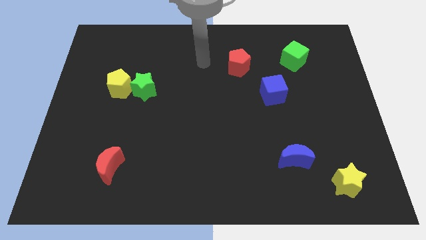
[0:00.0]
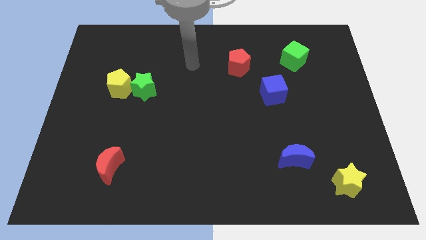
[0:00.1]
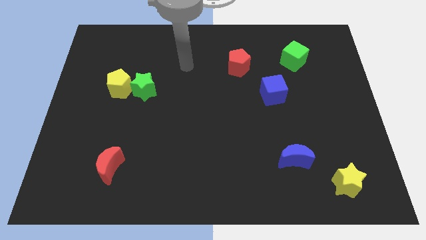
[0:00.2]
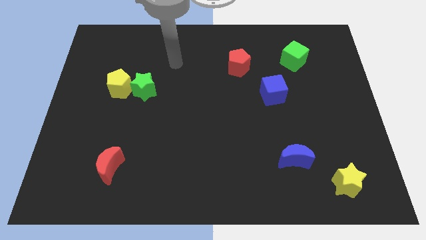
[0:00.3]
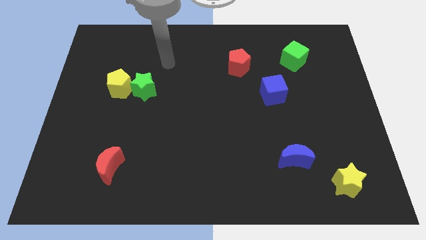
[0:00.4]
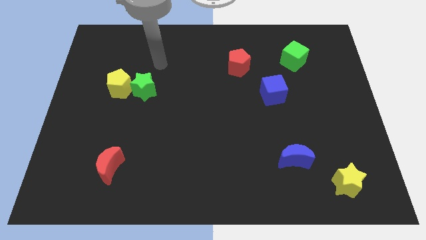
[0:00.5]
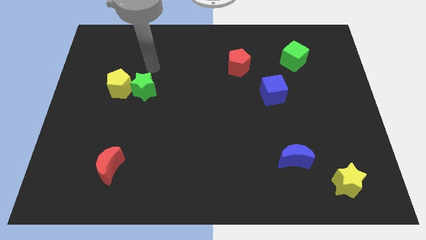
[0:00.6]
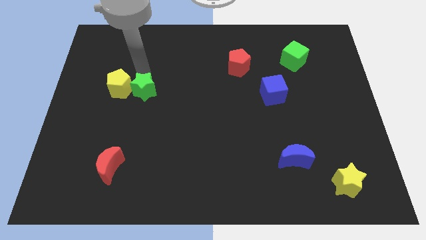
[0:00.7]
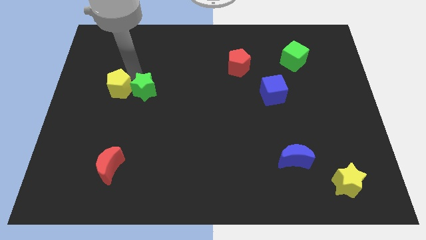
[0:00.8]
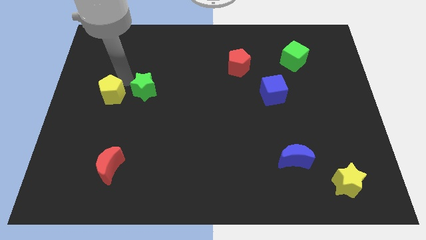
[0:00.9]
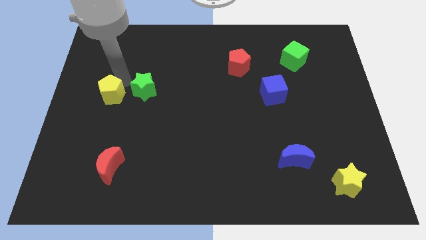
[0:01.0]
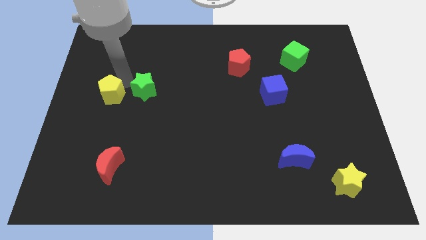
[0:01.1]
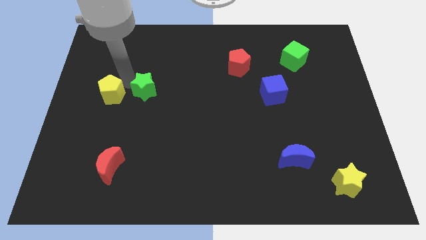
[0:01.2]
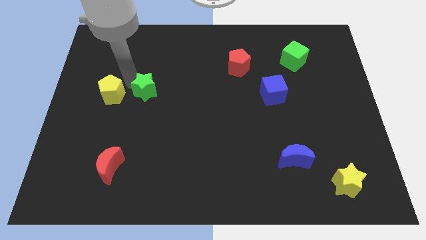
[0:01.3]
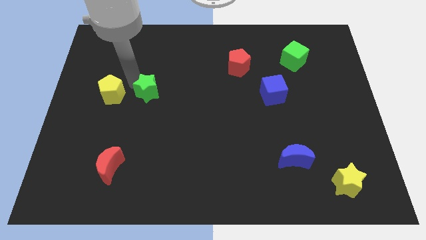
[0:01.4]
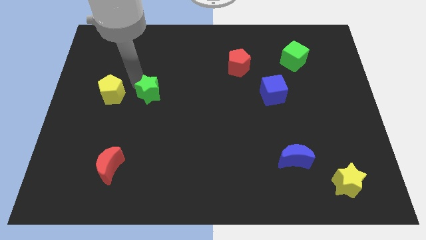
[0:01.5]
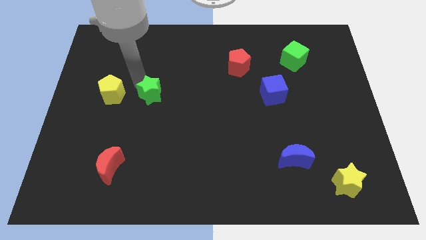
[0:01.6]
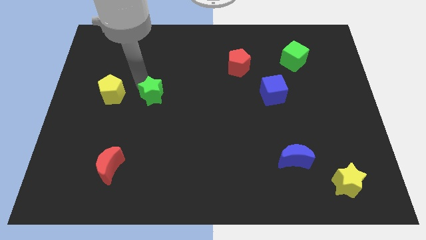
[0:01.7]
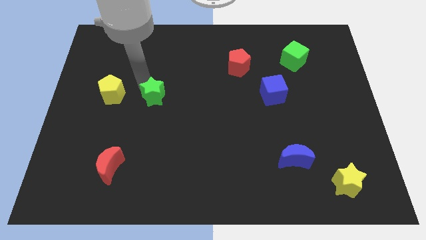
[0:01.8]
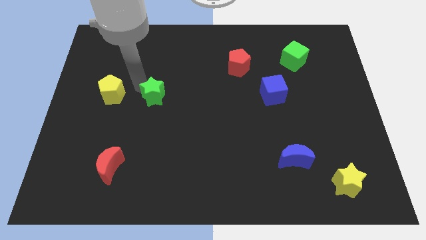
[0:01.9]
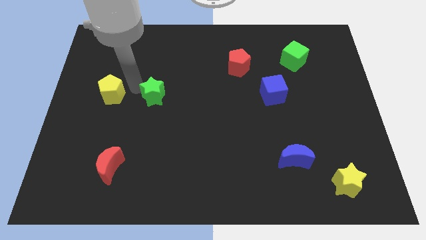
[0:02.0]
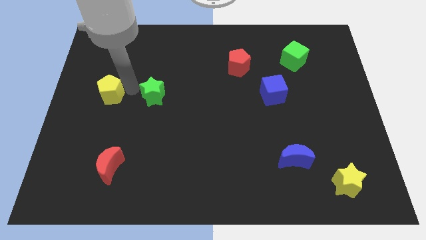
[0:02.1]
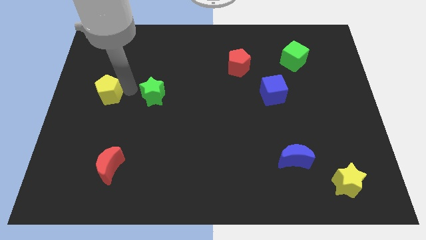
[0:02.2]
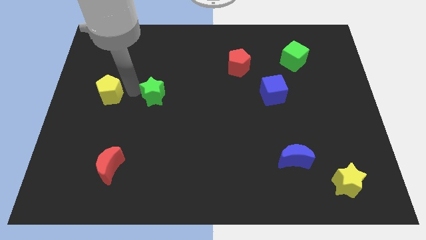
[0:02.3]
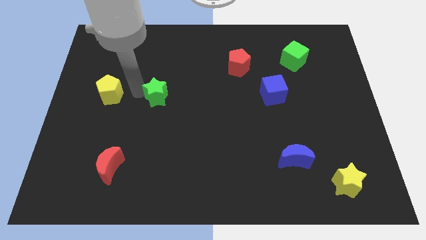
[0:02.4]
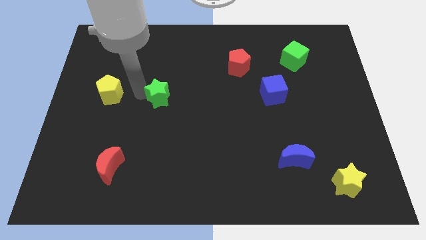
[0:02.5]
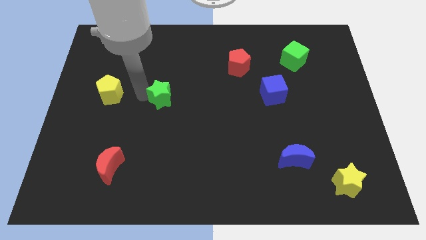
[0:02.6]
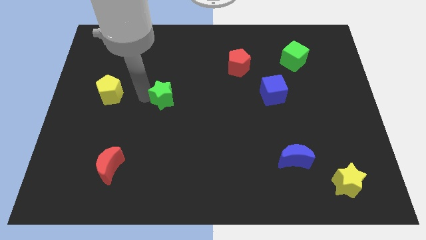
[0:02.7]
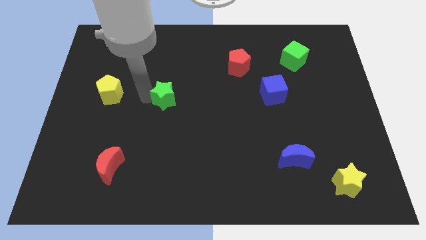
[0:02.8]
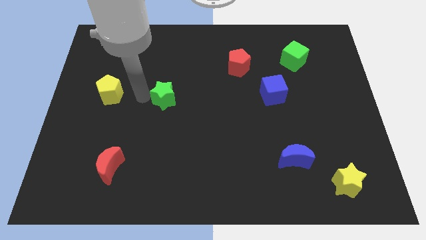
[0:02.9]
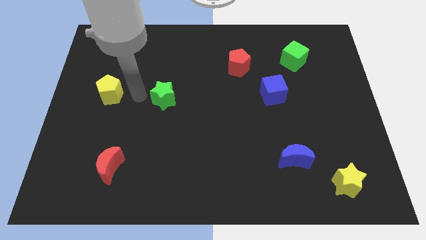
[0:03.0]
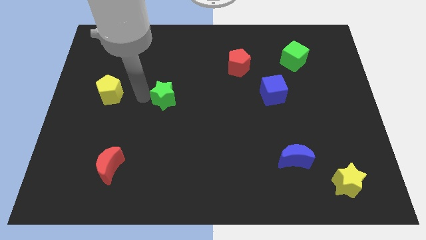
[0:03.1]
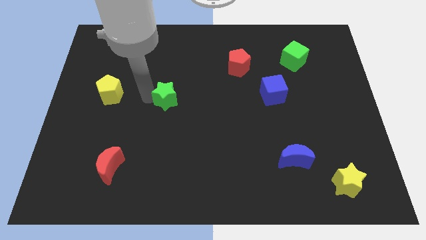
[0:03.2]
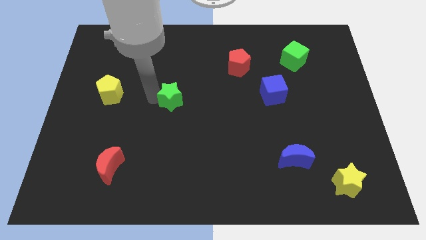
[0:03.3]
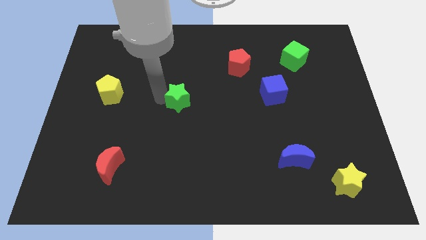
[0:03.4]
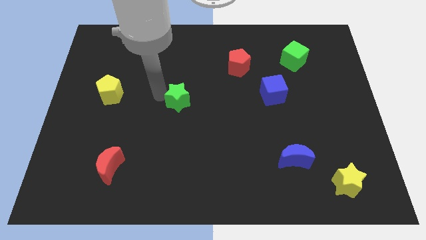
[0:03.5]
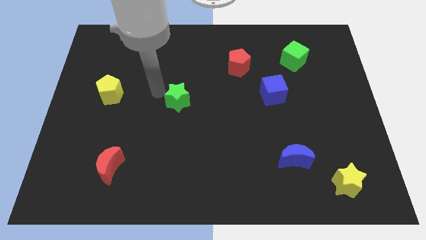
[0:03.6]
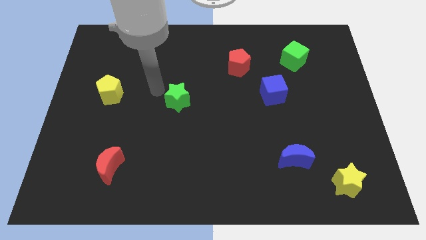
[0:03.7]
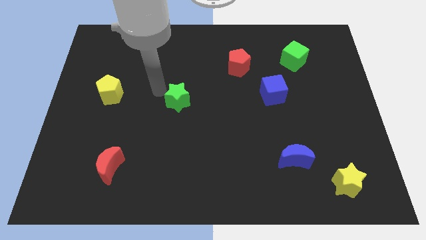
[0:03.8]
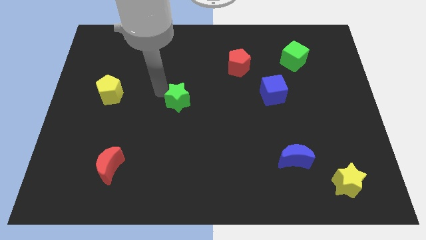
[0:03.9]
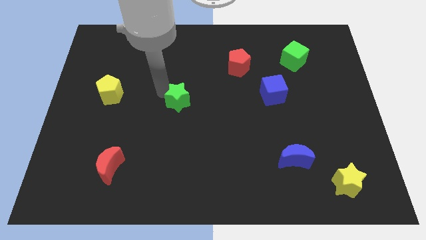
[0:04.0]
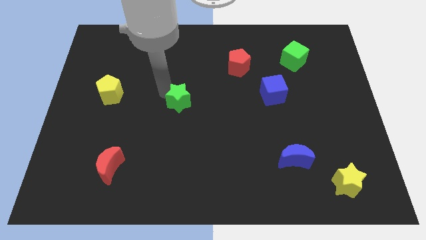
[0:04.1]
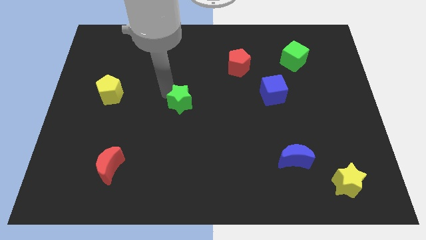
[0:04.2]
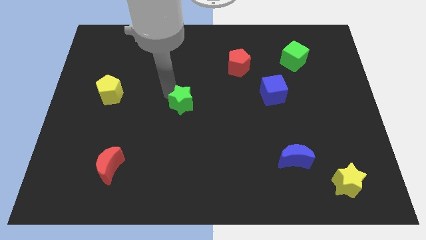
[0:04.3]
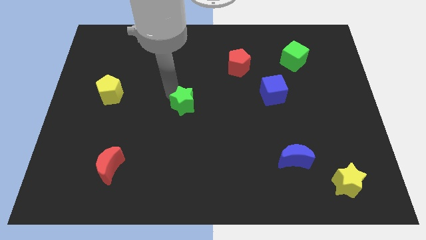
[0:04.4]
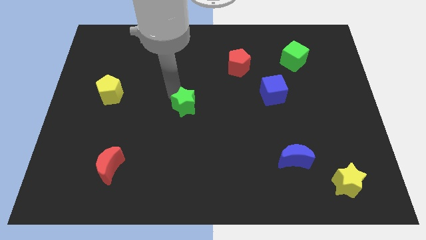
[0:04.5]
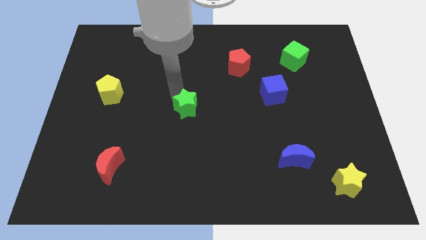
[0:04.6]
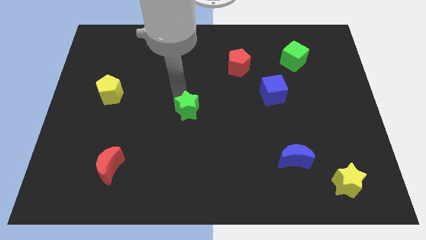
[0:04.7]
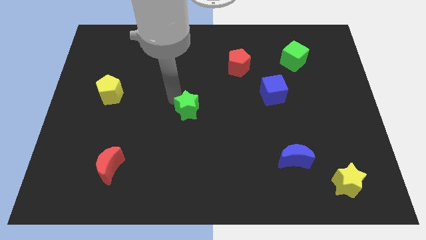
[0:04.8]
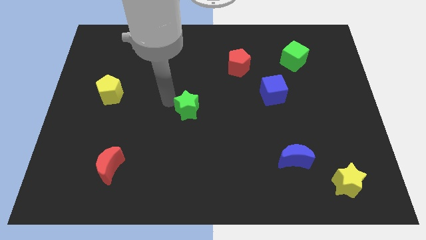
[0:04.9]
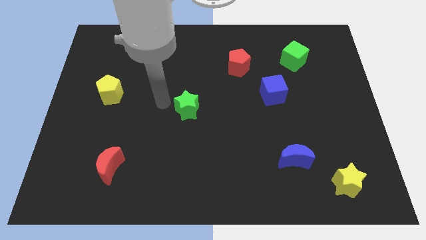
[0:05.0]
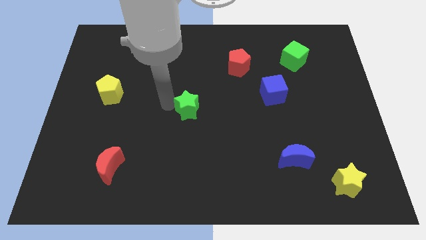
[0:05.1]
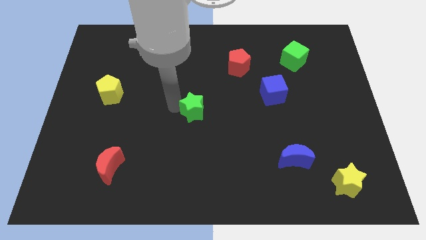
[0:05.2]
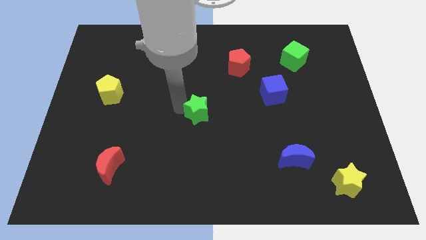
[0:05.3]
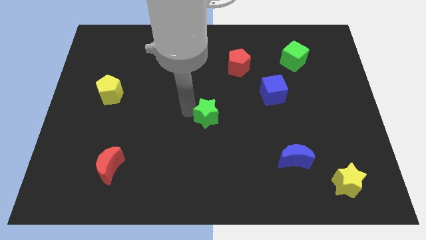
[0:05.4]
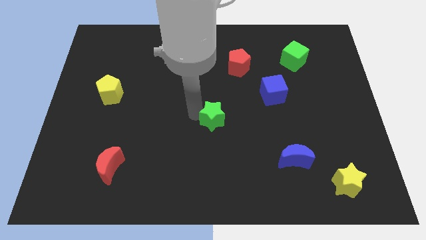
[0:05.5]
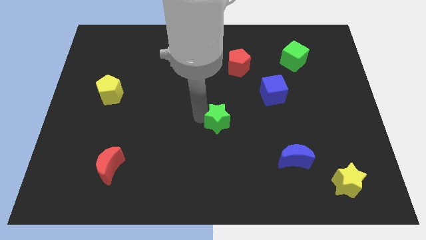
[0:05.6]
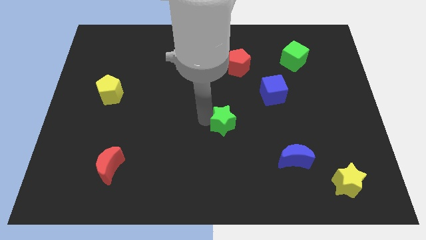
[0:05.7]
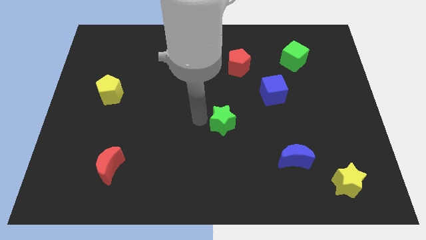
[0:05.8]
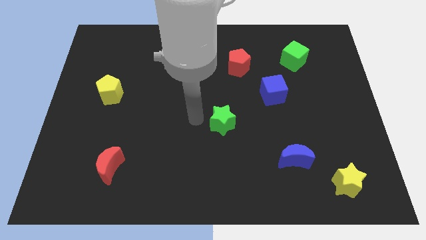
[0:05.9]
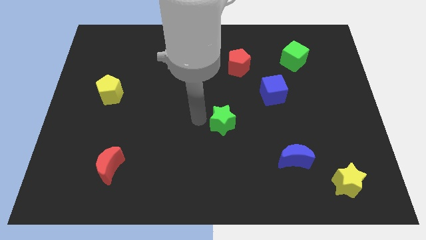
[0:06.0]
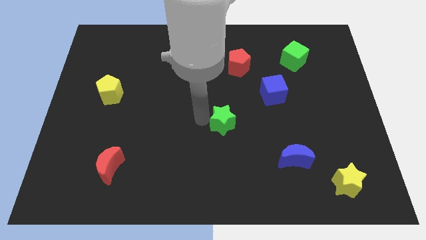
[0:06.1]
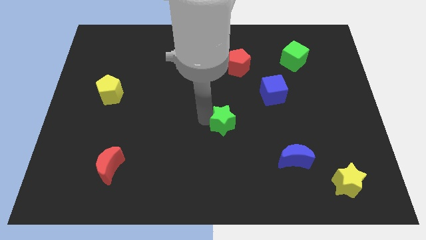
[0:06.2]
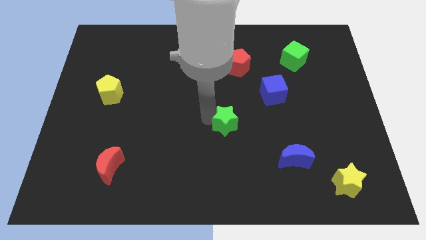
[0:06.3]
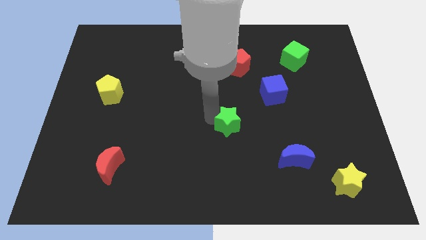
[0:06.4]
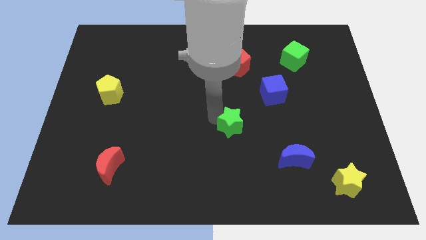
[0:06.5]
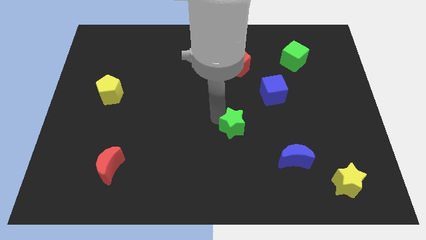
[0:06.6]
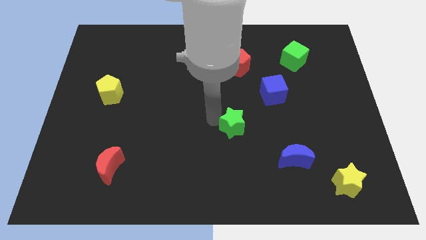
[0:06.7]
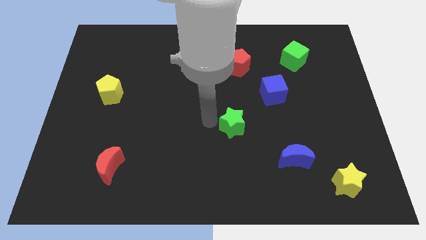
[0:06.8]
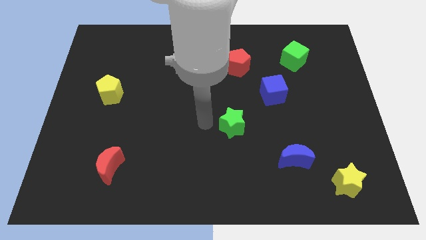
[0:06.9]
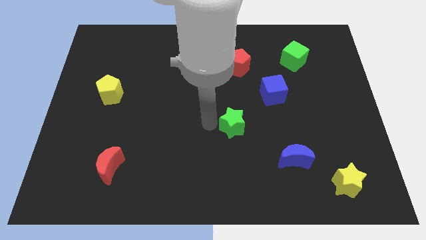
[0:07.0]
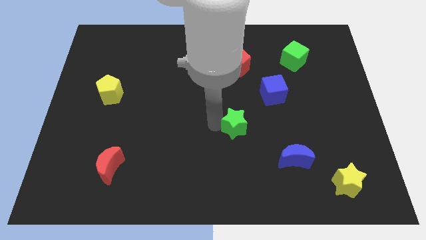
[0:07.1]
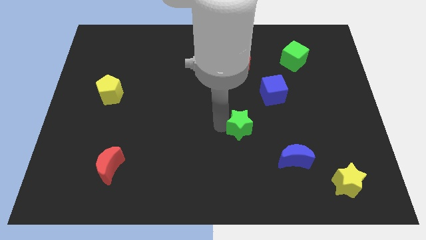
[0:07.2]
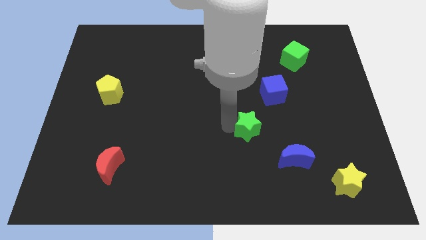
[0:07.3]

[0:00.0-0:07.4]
move the green star diagonally up and to the left of the blue moon
